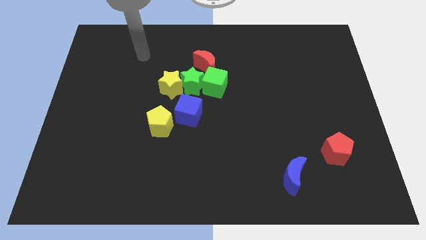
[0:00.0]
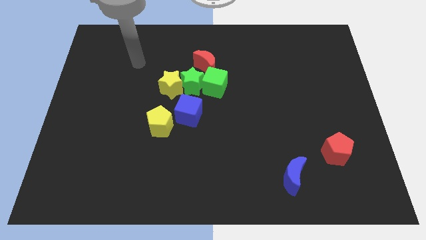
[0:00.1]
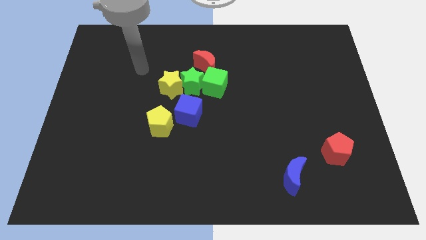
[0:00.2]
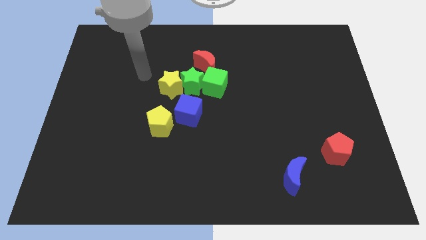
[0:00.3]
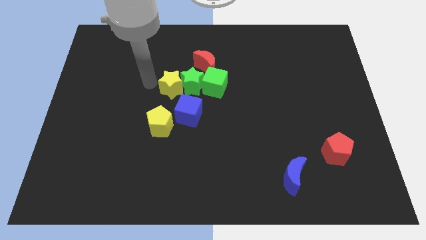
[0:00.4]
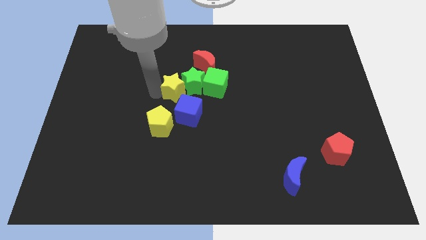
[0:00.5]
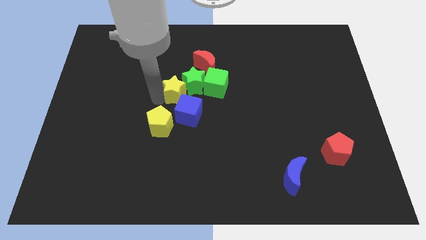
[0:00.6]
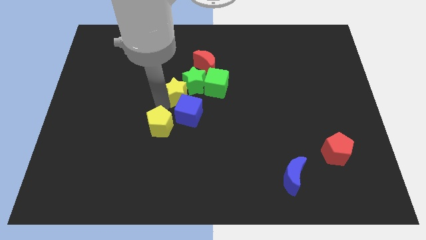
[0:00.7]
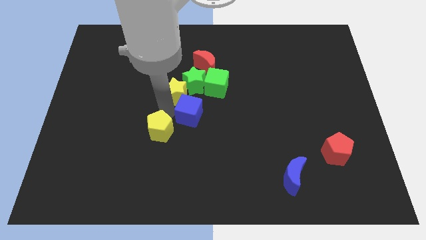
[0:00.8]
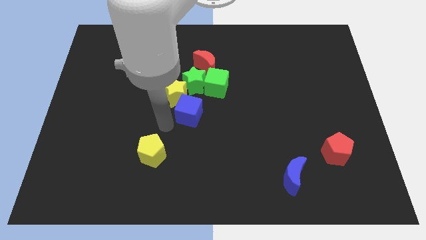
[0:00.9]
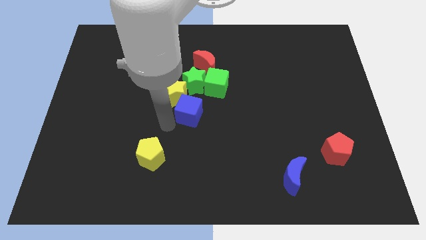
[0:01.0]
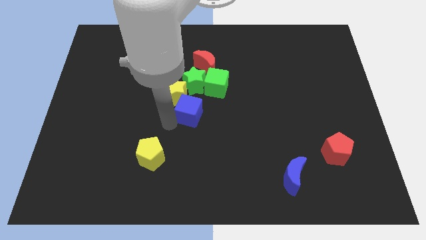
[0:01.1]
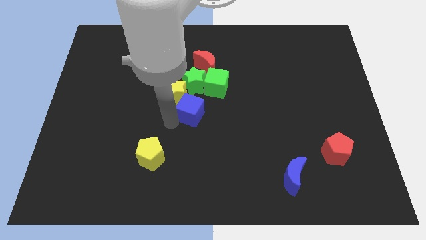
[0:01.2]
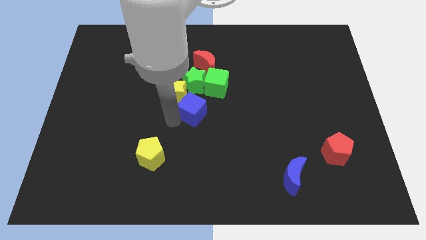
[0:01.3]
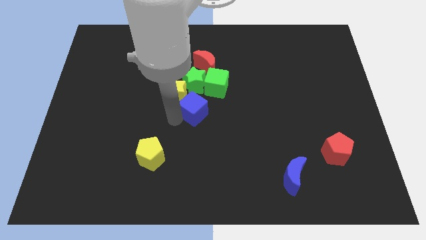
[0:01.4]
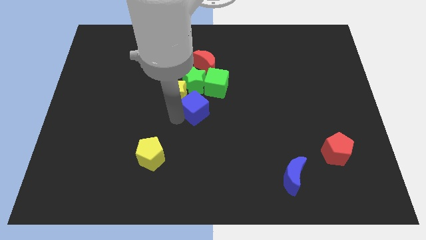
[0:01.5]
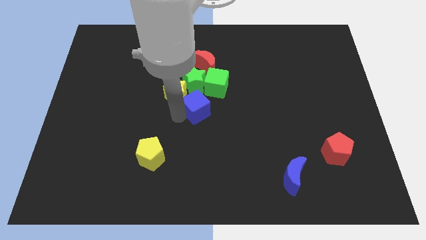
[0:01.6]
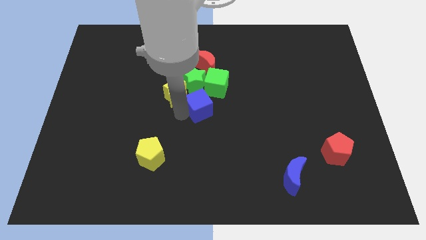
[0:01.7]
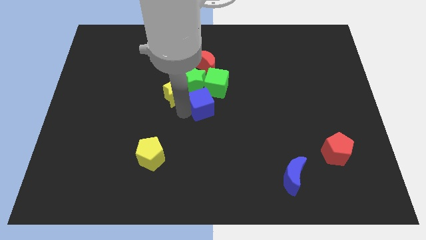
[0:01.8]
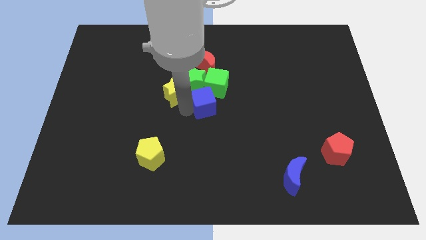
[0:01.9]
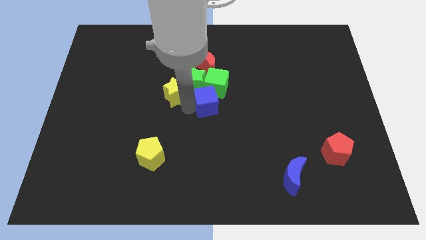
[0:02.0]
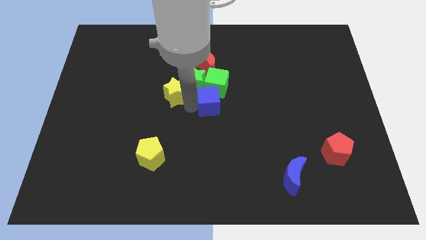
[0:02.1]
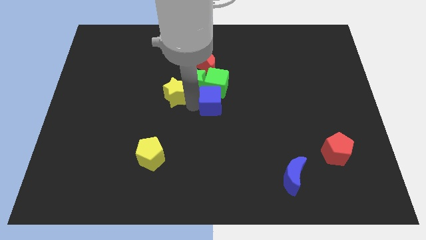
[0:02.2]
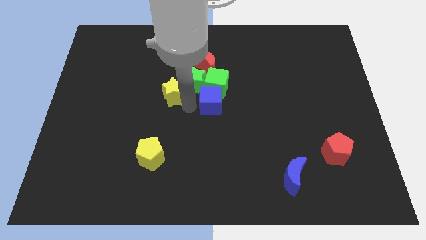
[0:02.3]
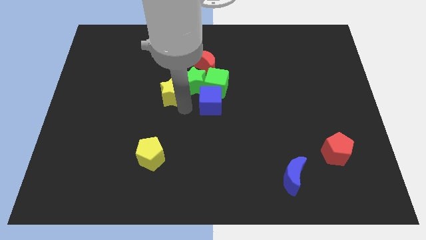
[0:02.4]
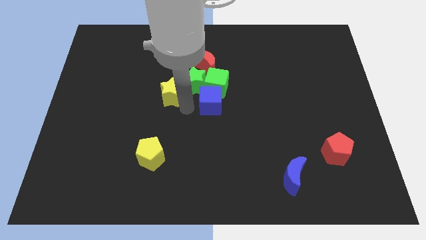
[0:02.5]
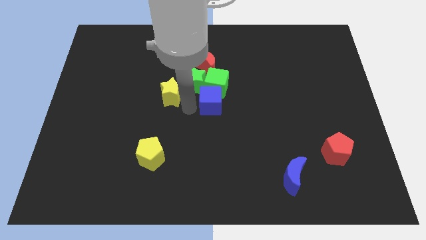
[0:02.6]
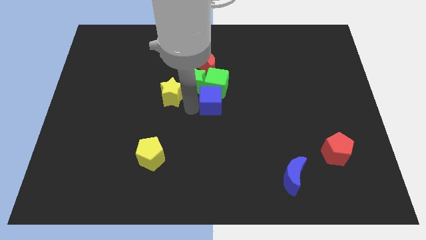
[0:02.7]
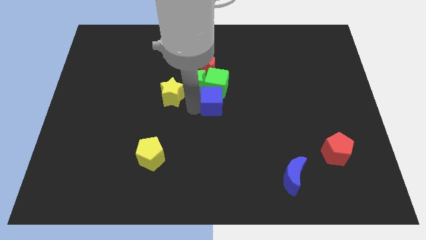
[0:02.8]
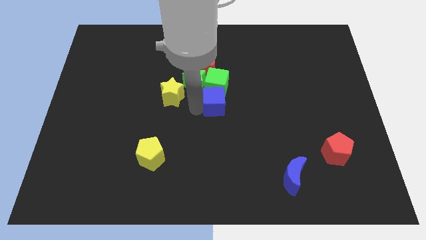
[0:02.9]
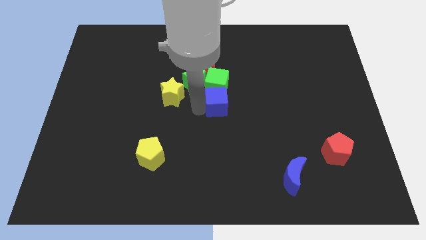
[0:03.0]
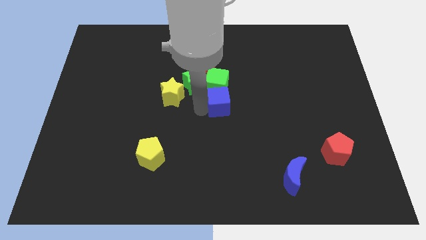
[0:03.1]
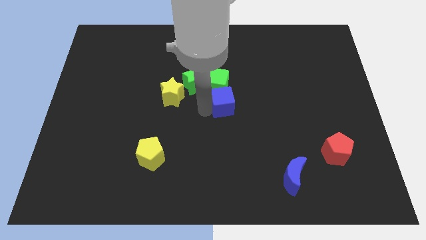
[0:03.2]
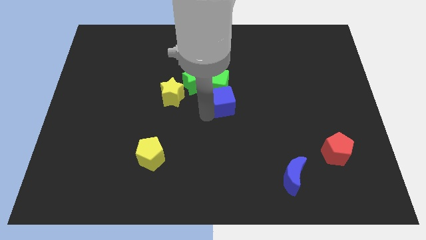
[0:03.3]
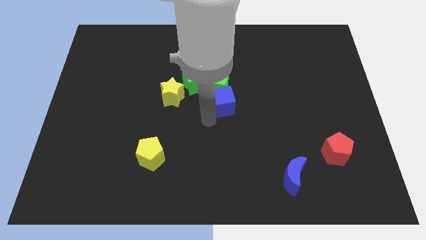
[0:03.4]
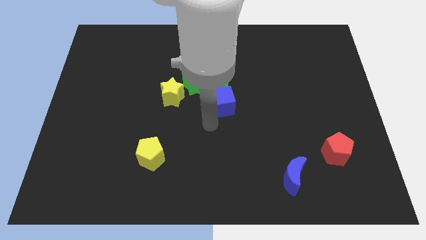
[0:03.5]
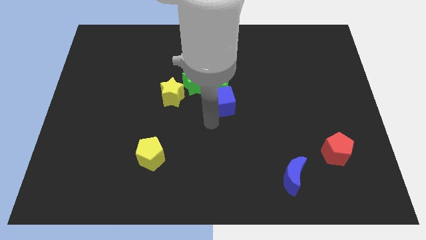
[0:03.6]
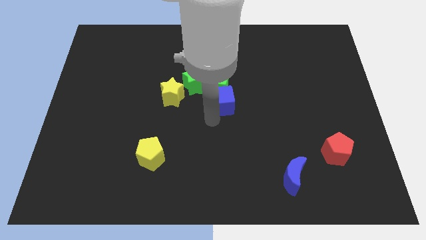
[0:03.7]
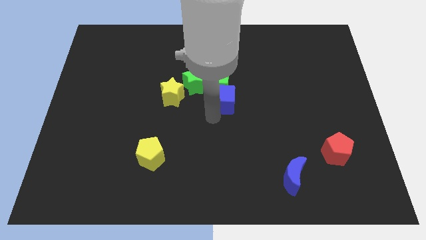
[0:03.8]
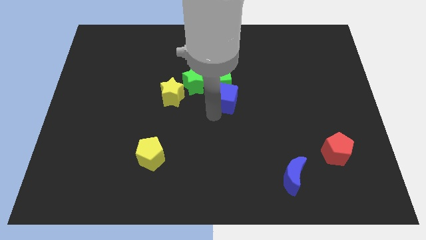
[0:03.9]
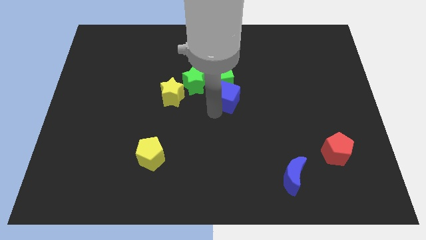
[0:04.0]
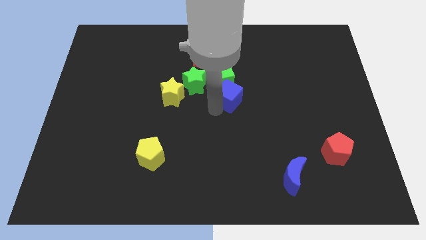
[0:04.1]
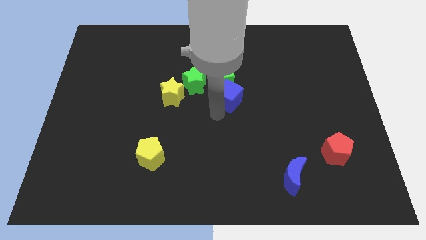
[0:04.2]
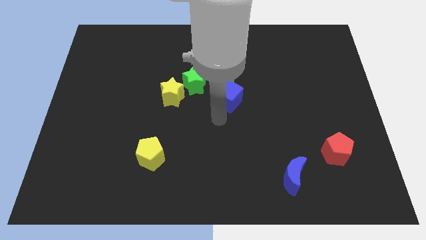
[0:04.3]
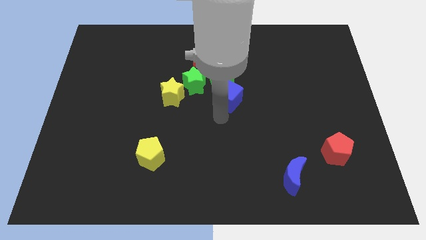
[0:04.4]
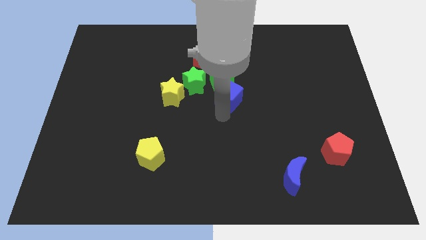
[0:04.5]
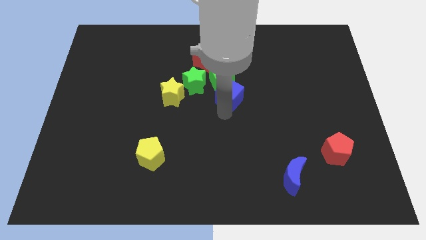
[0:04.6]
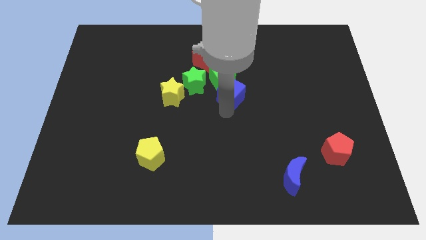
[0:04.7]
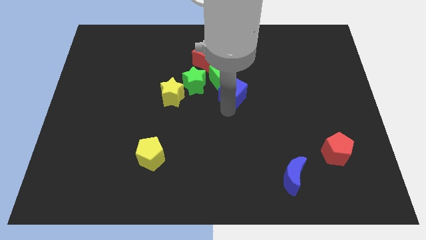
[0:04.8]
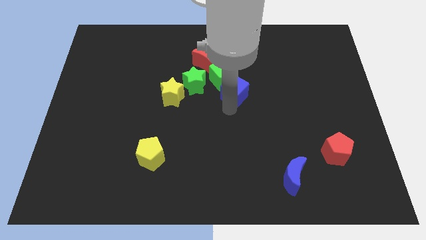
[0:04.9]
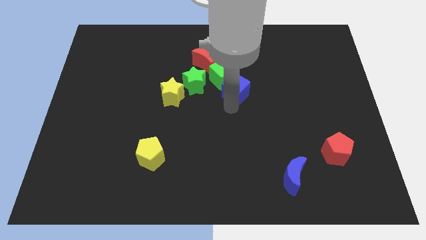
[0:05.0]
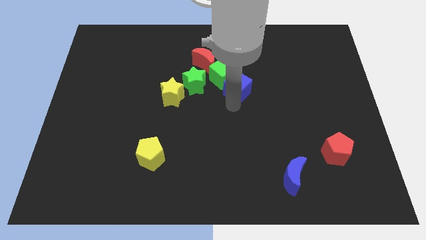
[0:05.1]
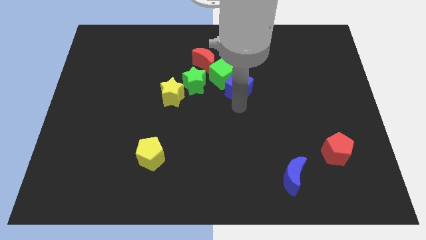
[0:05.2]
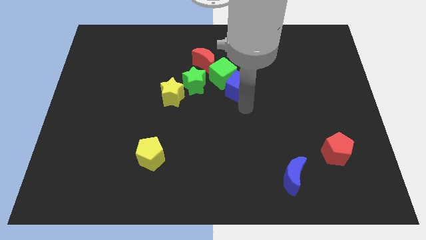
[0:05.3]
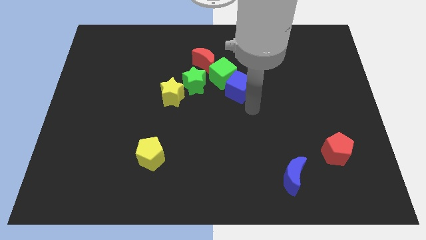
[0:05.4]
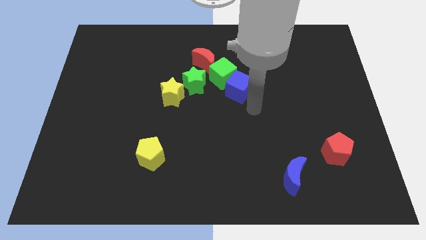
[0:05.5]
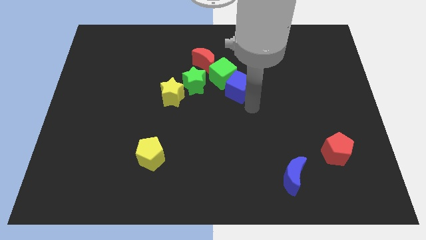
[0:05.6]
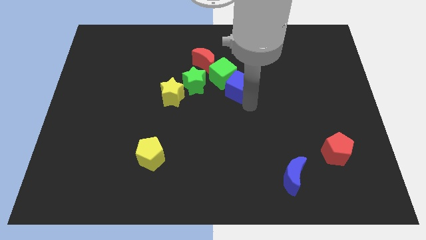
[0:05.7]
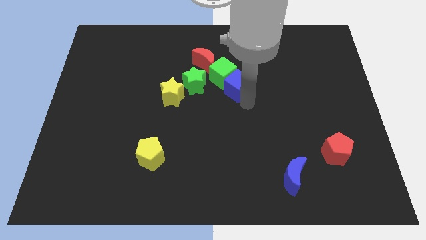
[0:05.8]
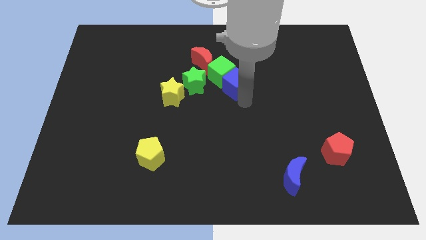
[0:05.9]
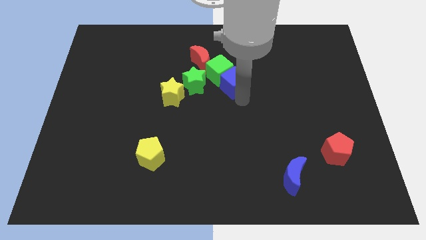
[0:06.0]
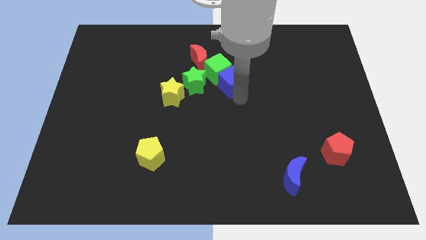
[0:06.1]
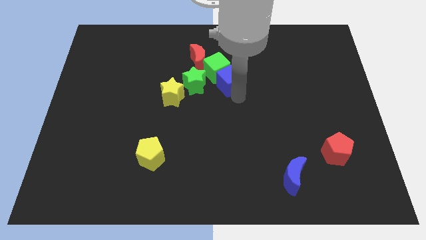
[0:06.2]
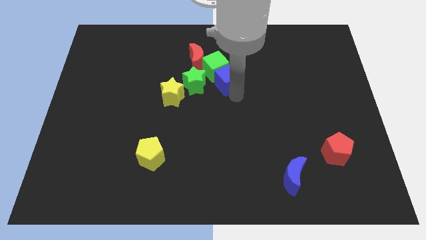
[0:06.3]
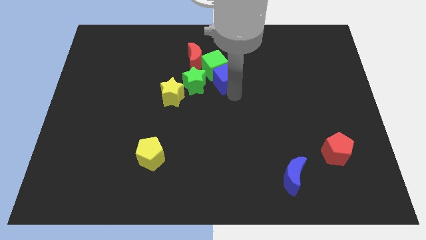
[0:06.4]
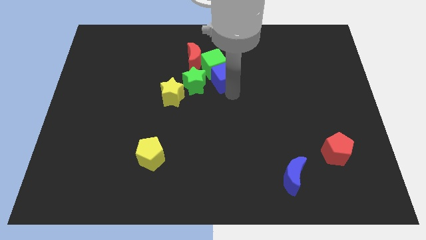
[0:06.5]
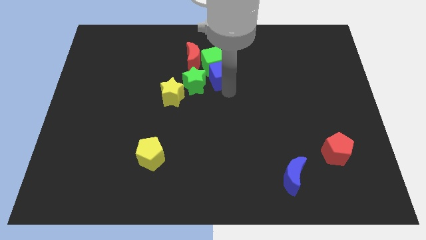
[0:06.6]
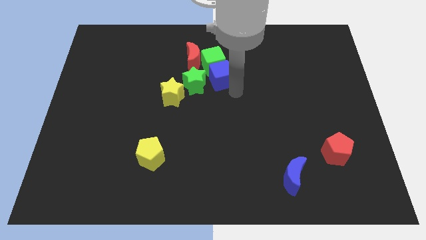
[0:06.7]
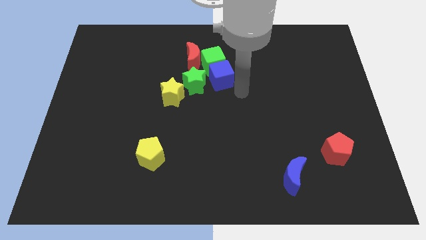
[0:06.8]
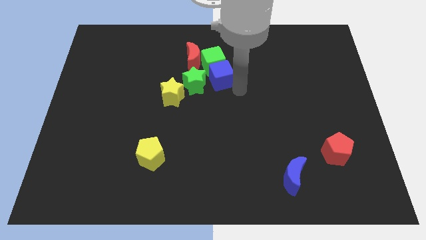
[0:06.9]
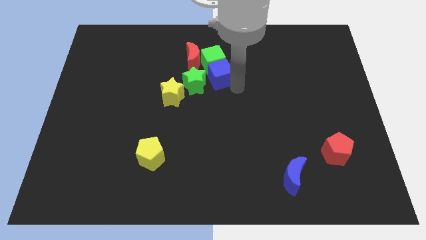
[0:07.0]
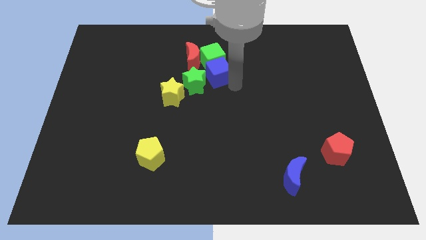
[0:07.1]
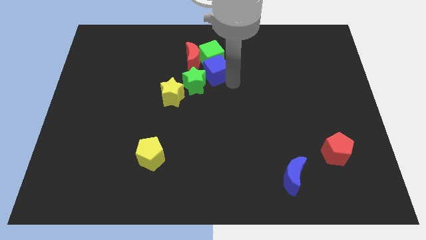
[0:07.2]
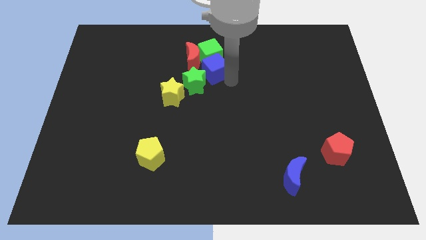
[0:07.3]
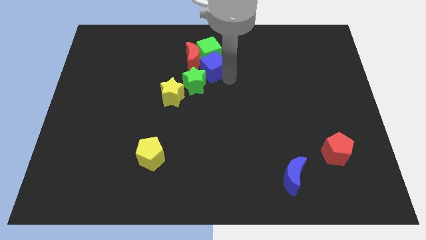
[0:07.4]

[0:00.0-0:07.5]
move the blue cube next to the red moon
